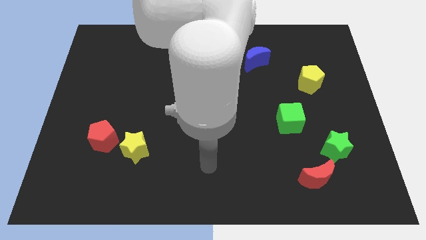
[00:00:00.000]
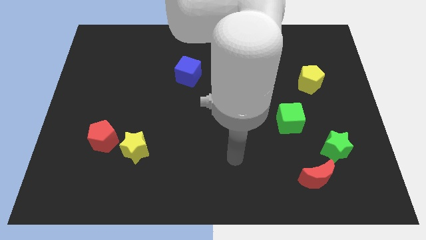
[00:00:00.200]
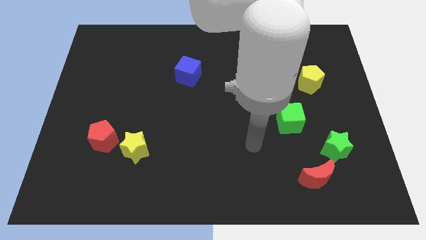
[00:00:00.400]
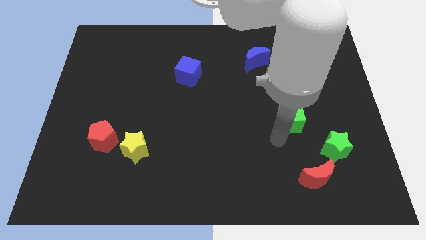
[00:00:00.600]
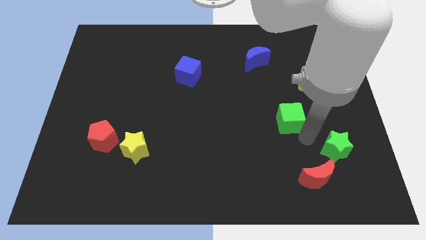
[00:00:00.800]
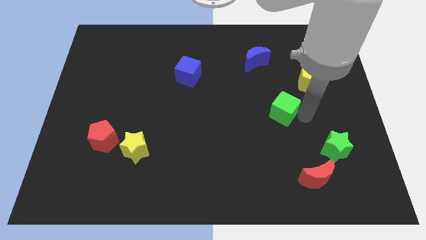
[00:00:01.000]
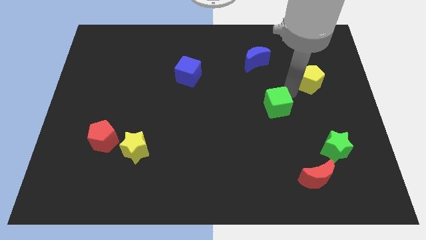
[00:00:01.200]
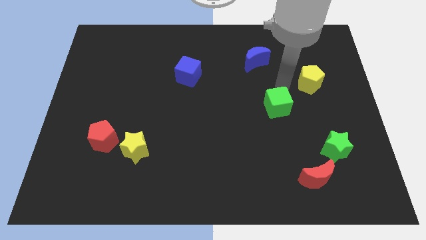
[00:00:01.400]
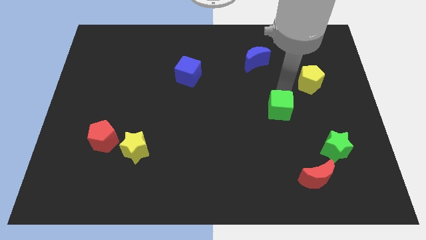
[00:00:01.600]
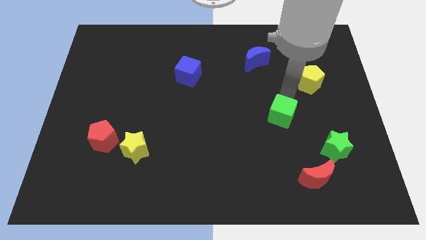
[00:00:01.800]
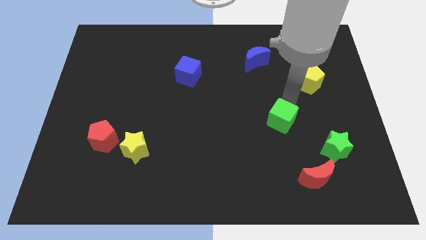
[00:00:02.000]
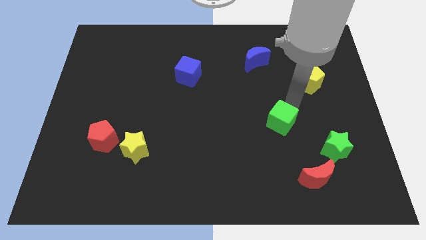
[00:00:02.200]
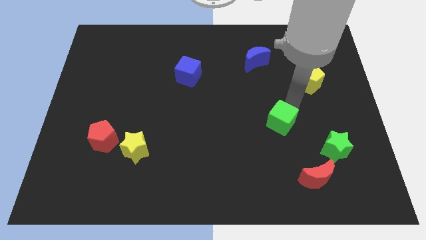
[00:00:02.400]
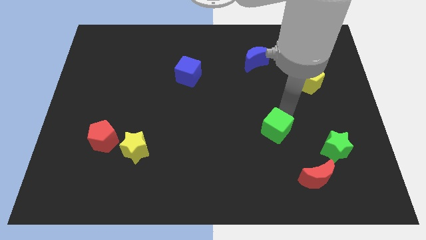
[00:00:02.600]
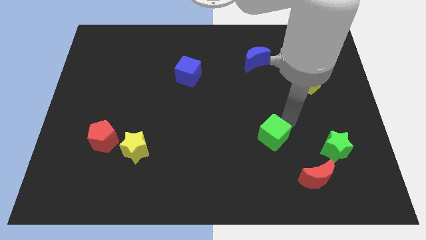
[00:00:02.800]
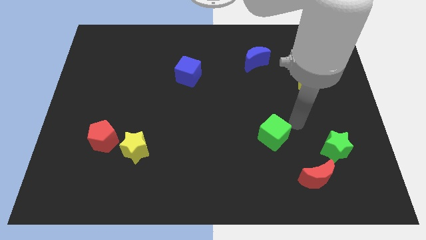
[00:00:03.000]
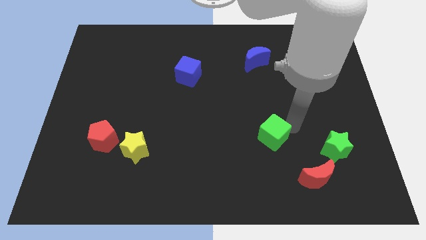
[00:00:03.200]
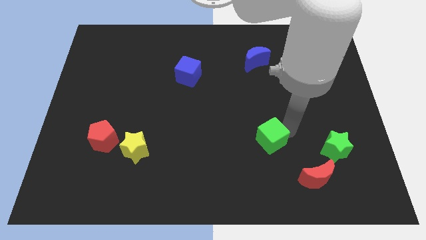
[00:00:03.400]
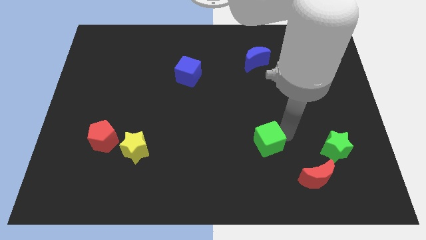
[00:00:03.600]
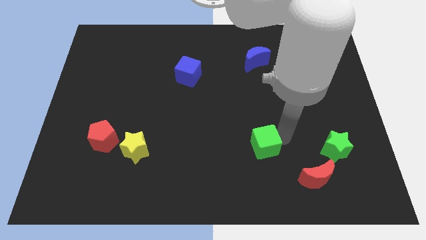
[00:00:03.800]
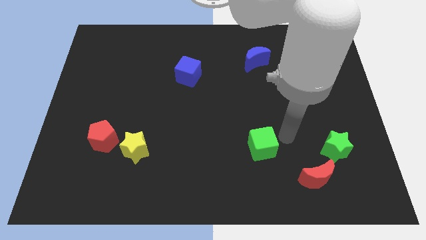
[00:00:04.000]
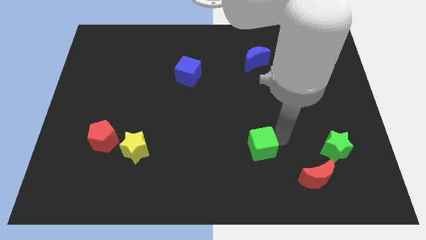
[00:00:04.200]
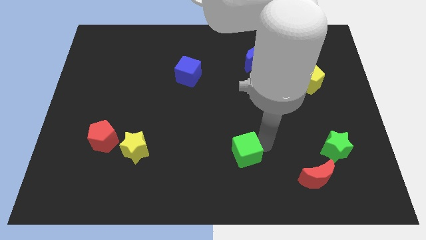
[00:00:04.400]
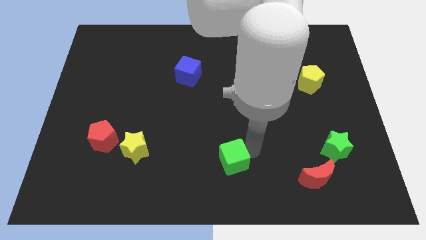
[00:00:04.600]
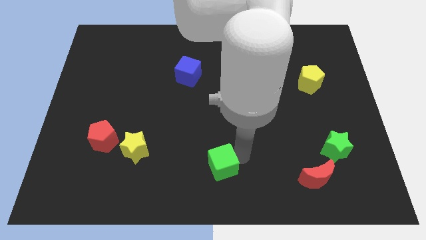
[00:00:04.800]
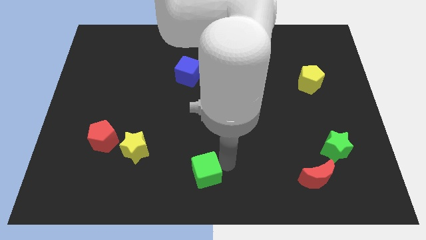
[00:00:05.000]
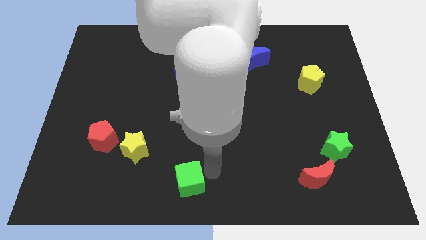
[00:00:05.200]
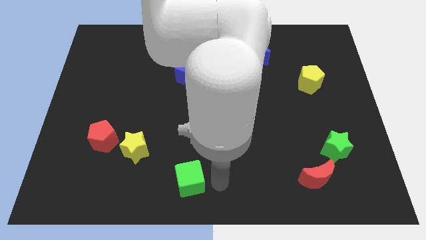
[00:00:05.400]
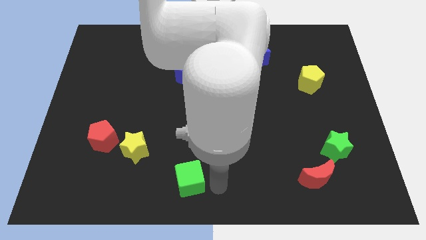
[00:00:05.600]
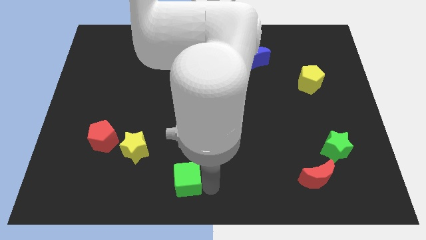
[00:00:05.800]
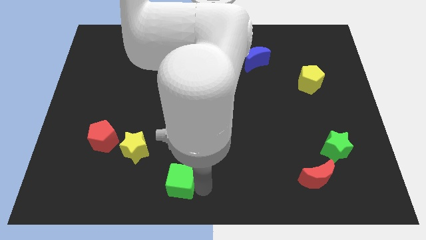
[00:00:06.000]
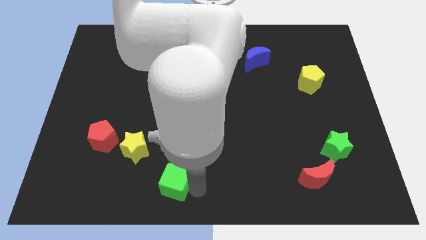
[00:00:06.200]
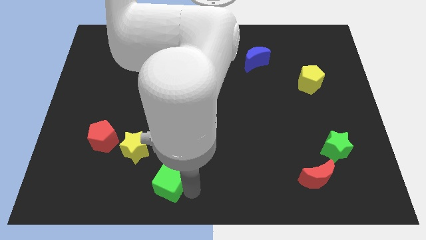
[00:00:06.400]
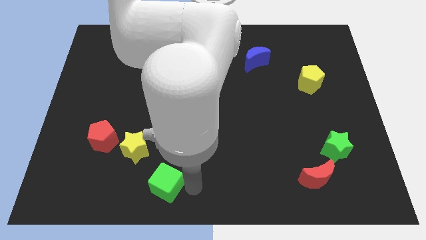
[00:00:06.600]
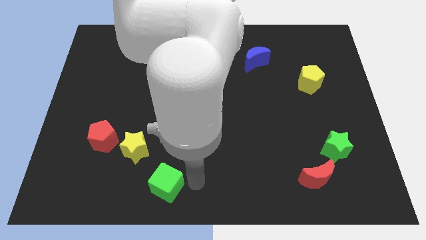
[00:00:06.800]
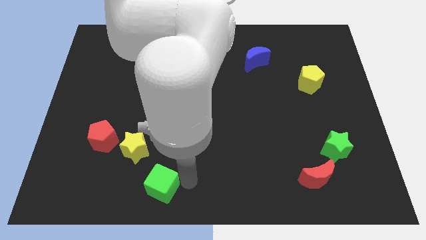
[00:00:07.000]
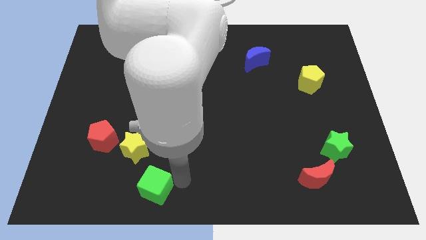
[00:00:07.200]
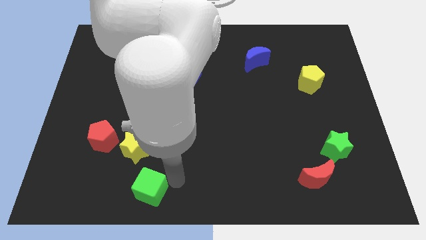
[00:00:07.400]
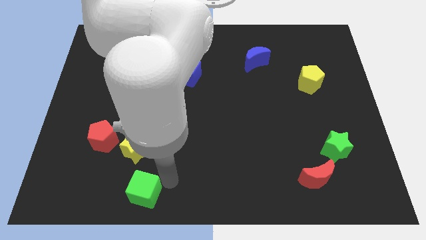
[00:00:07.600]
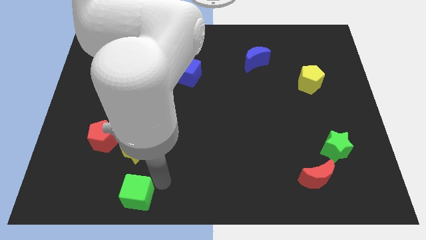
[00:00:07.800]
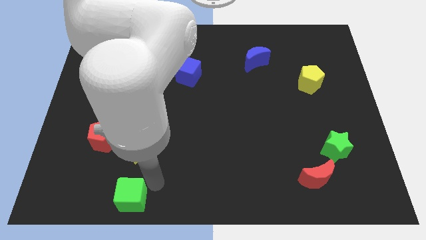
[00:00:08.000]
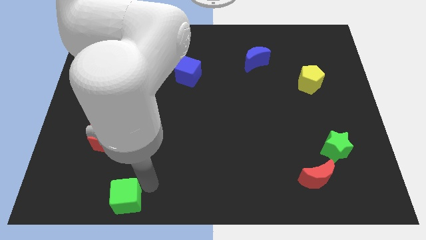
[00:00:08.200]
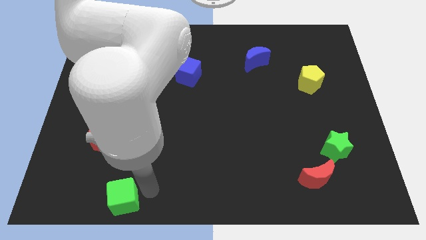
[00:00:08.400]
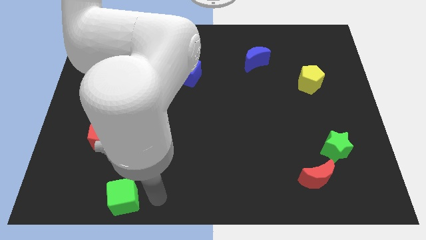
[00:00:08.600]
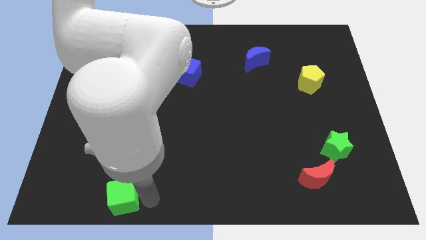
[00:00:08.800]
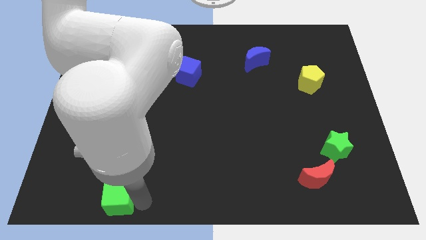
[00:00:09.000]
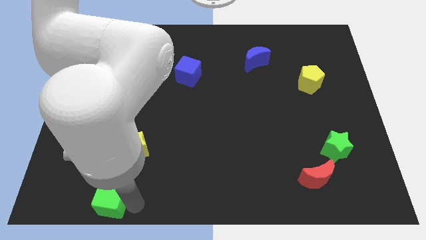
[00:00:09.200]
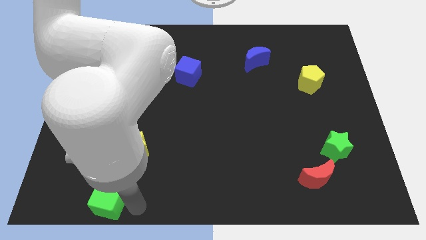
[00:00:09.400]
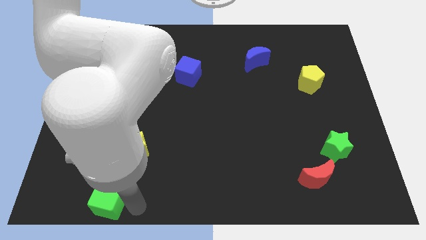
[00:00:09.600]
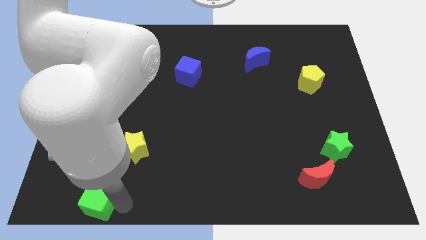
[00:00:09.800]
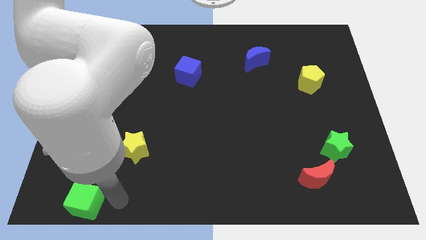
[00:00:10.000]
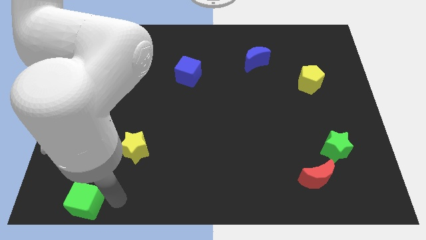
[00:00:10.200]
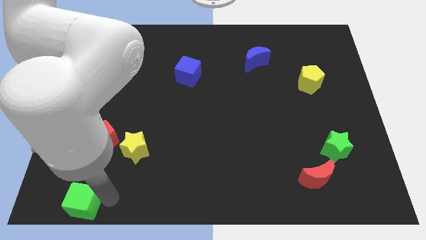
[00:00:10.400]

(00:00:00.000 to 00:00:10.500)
put the green cube to the lower left corner

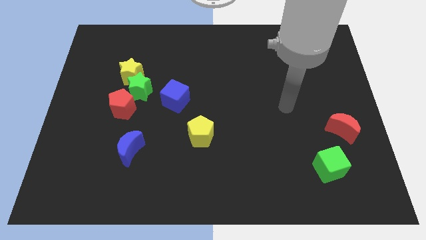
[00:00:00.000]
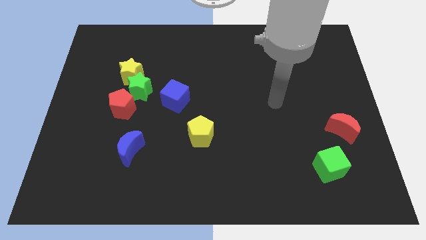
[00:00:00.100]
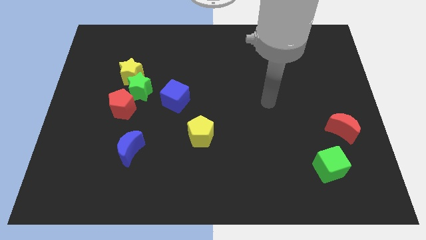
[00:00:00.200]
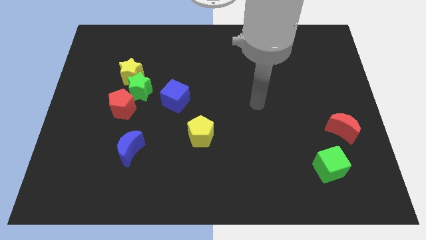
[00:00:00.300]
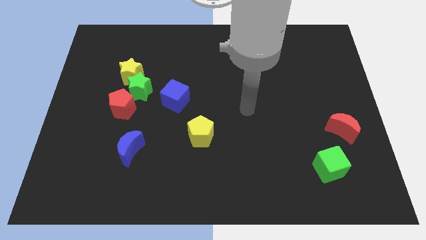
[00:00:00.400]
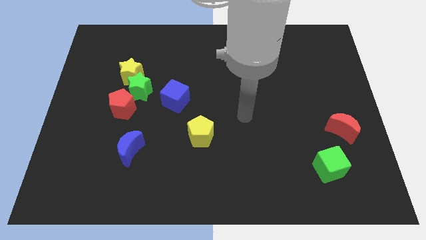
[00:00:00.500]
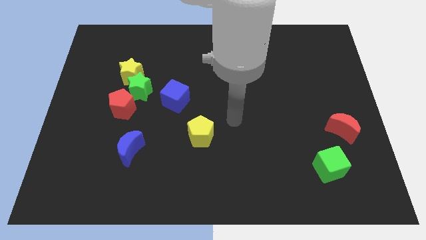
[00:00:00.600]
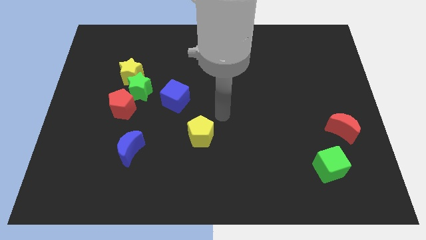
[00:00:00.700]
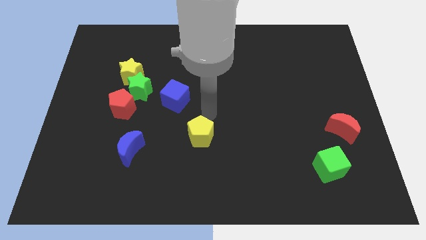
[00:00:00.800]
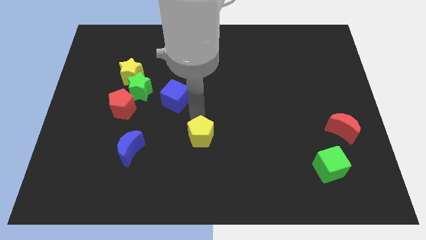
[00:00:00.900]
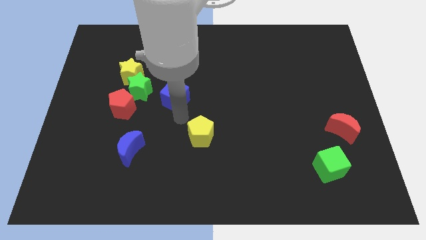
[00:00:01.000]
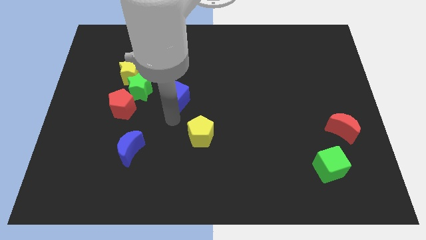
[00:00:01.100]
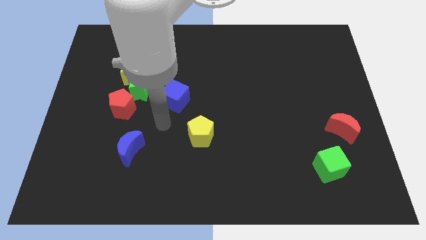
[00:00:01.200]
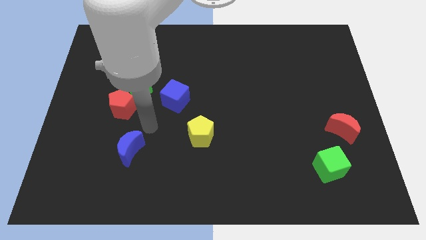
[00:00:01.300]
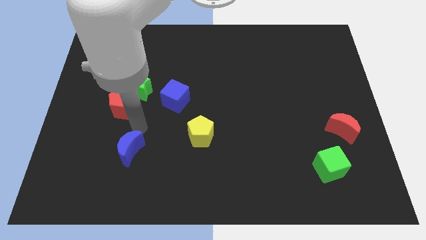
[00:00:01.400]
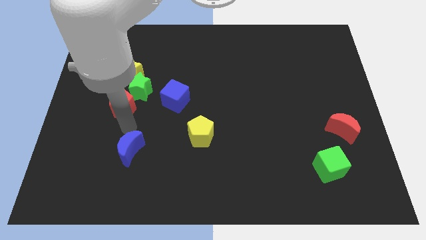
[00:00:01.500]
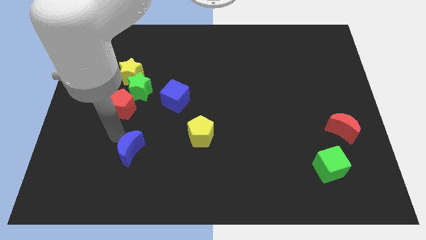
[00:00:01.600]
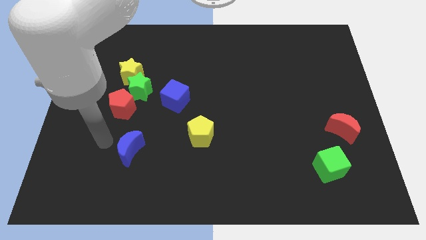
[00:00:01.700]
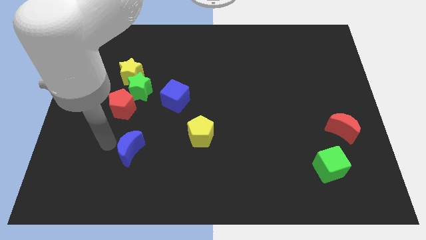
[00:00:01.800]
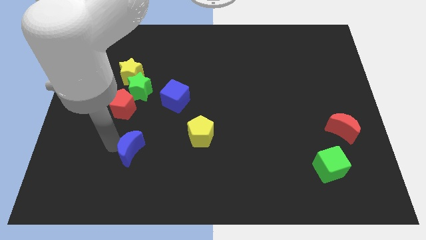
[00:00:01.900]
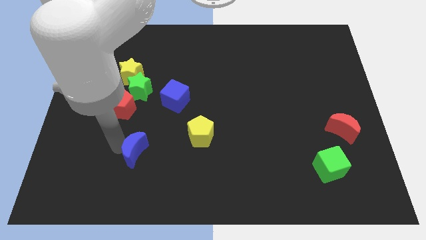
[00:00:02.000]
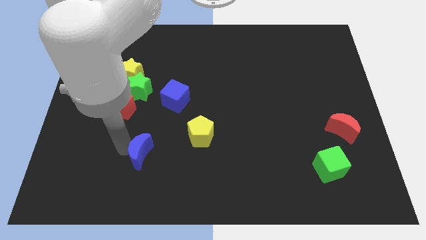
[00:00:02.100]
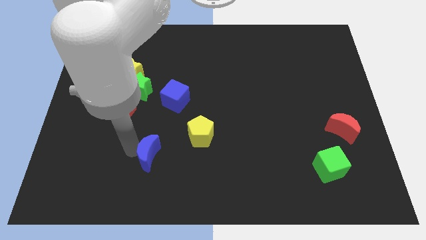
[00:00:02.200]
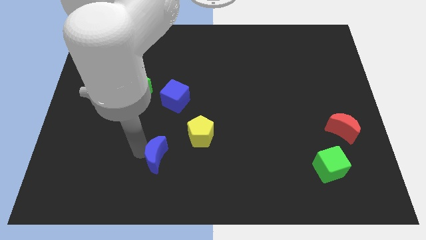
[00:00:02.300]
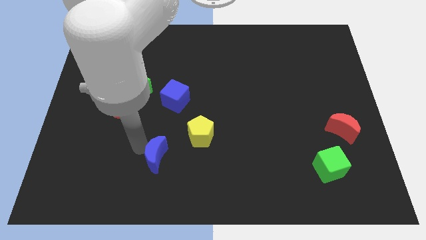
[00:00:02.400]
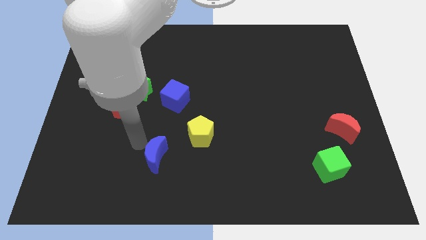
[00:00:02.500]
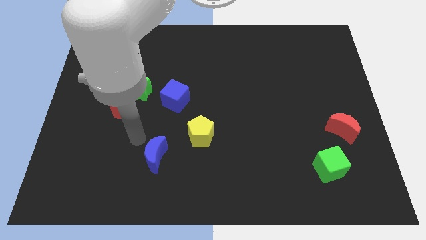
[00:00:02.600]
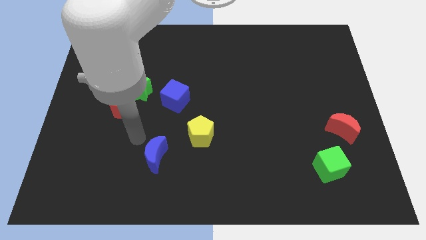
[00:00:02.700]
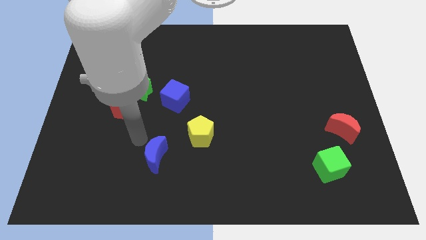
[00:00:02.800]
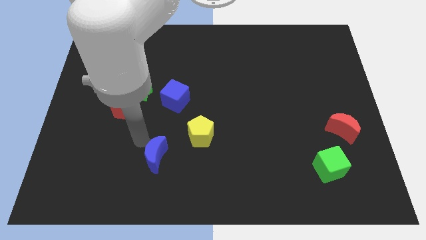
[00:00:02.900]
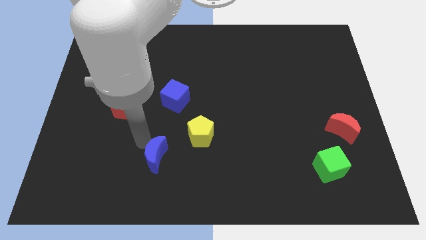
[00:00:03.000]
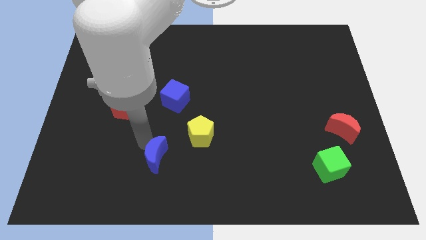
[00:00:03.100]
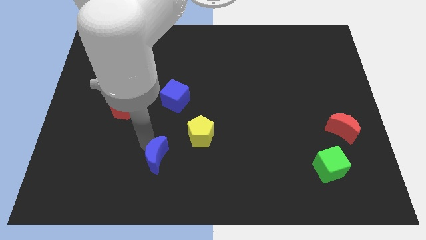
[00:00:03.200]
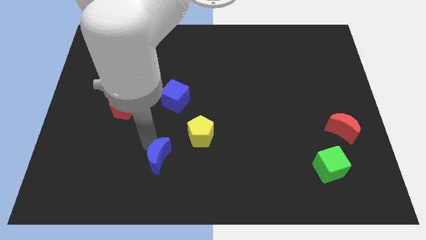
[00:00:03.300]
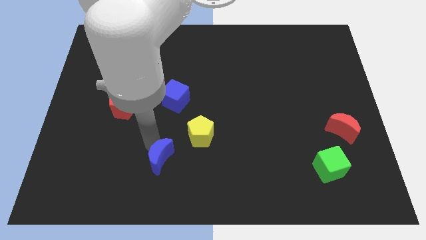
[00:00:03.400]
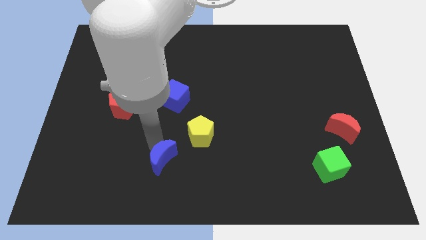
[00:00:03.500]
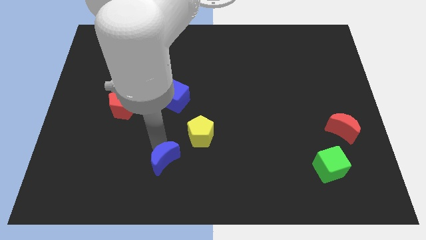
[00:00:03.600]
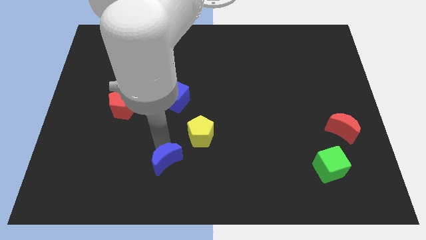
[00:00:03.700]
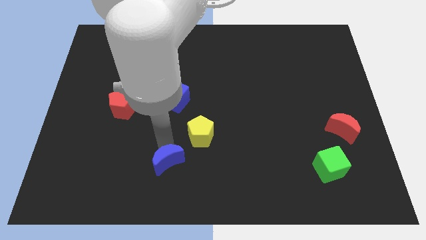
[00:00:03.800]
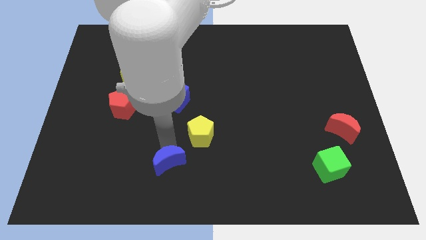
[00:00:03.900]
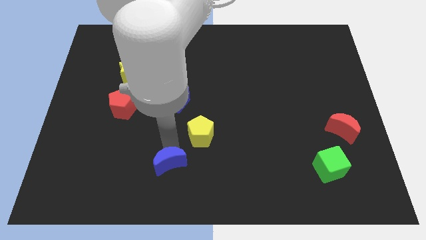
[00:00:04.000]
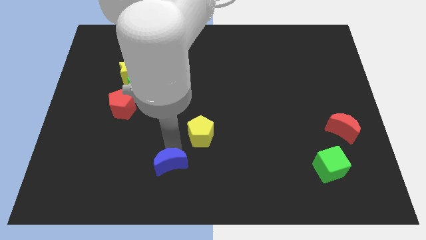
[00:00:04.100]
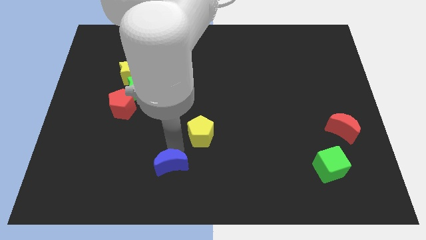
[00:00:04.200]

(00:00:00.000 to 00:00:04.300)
slide the blue moon to the bottom
